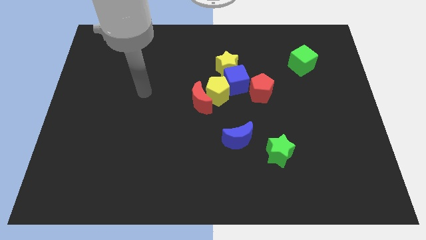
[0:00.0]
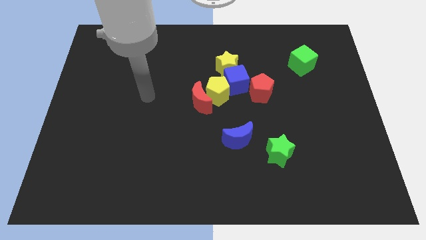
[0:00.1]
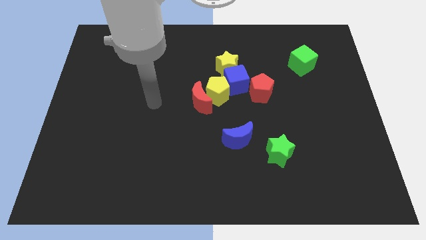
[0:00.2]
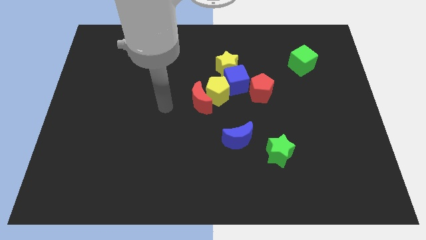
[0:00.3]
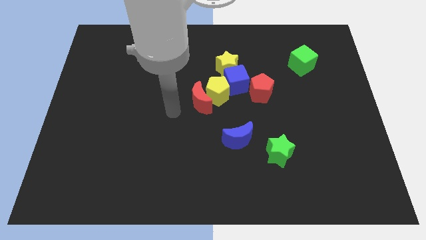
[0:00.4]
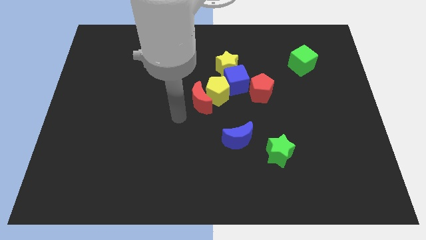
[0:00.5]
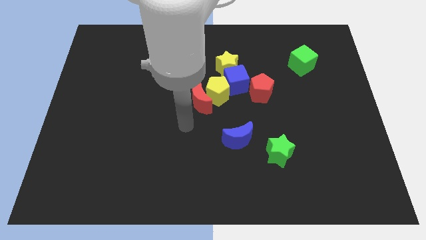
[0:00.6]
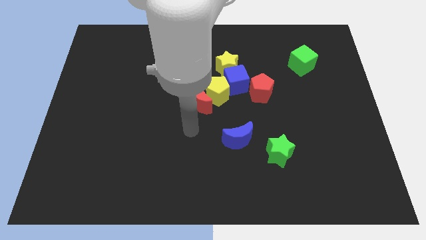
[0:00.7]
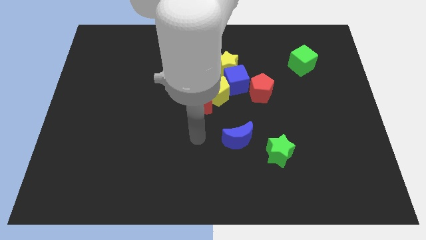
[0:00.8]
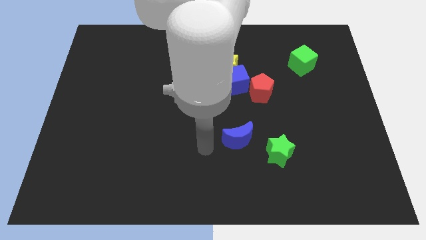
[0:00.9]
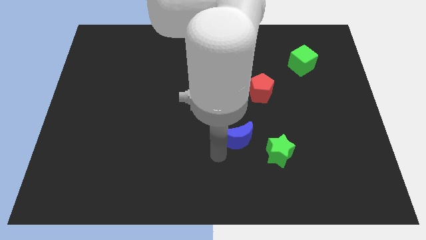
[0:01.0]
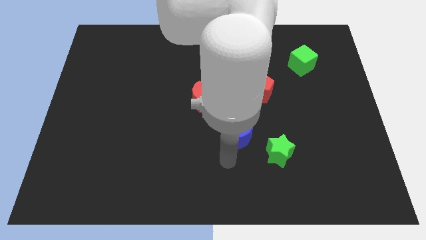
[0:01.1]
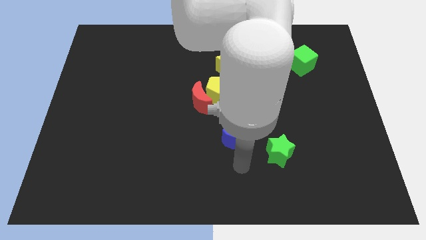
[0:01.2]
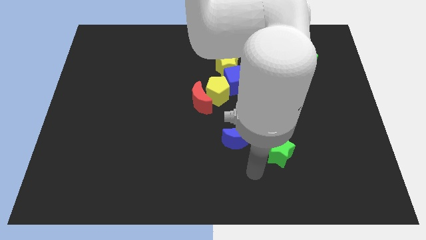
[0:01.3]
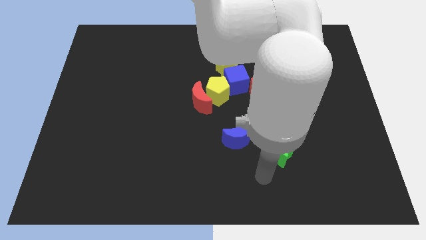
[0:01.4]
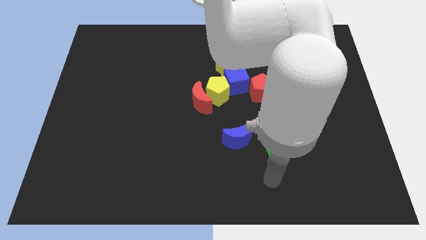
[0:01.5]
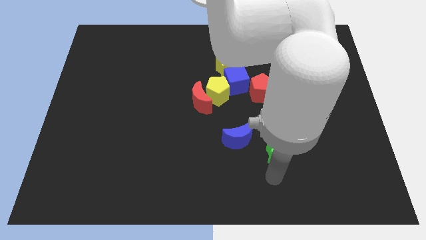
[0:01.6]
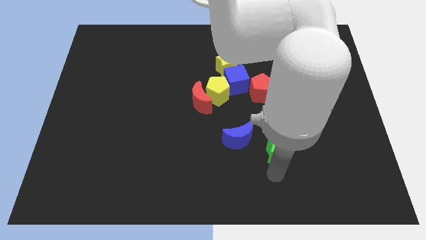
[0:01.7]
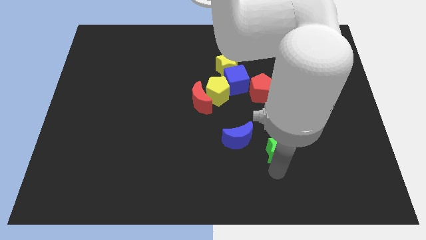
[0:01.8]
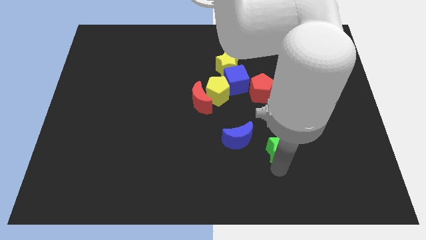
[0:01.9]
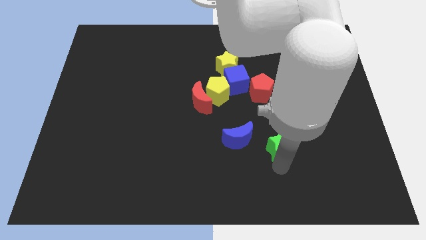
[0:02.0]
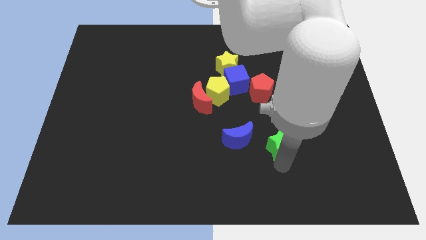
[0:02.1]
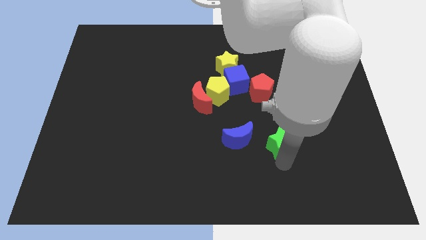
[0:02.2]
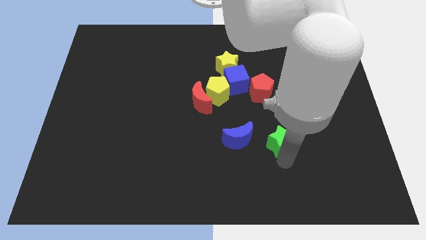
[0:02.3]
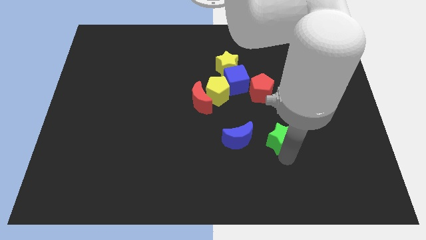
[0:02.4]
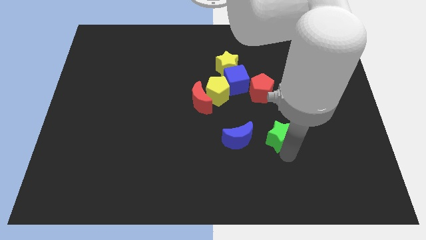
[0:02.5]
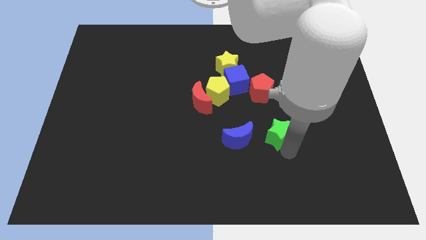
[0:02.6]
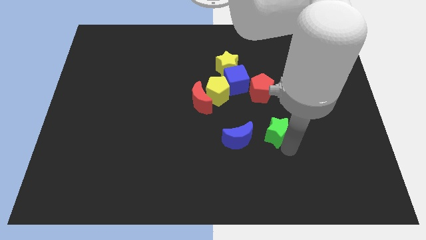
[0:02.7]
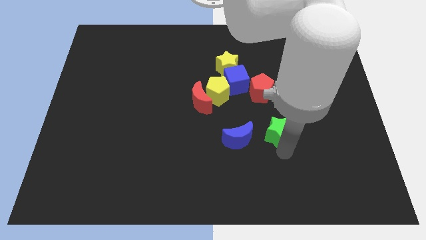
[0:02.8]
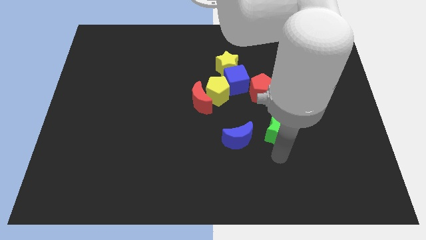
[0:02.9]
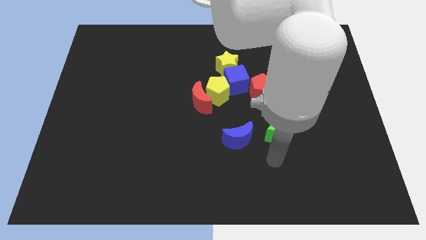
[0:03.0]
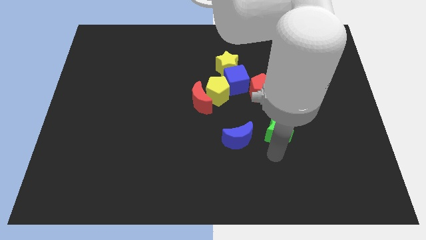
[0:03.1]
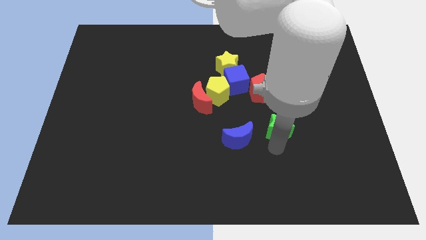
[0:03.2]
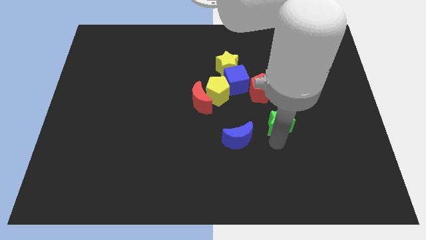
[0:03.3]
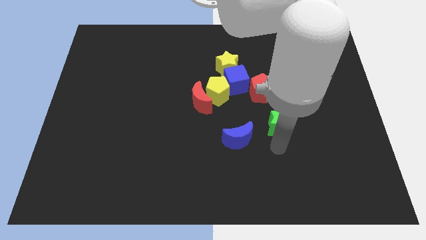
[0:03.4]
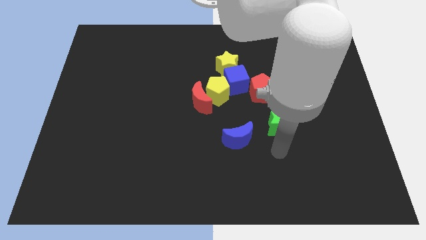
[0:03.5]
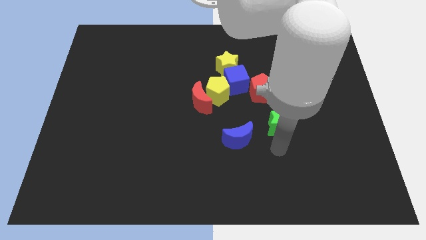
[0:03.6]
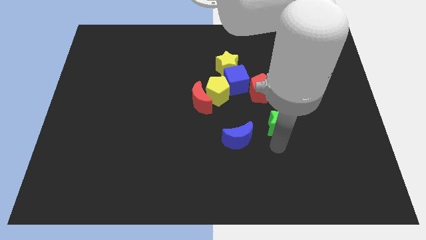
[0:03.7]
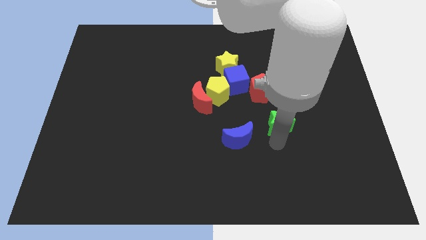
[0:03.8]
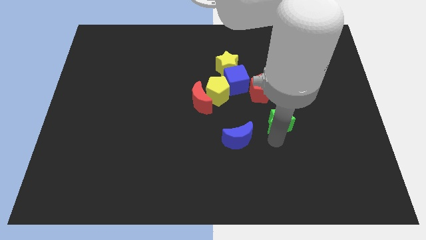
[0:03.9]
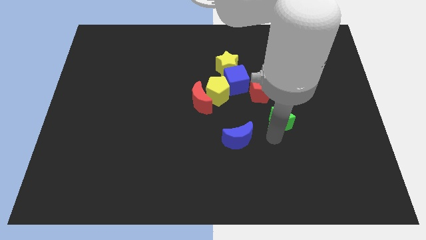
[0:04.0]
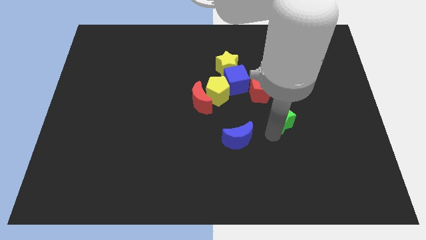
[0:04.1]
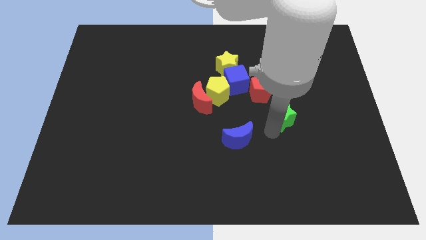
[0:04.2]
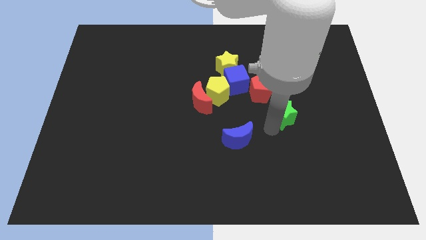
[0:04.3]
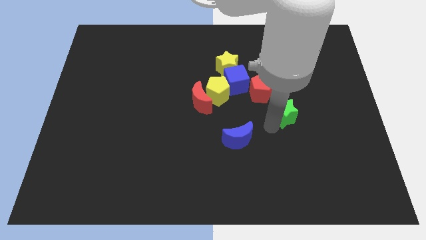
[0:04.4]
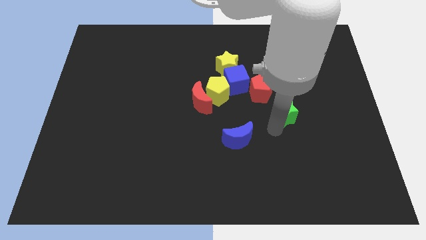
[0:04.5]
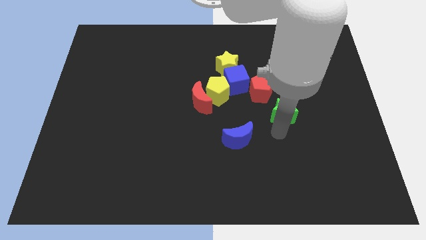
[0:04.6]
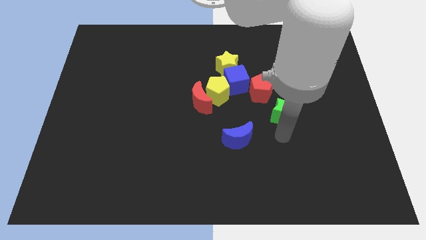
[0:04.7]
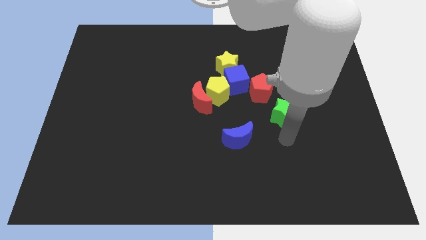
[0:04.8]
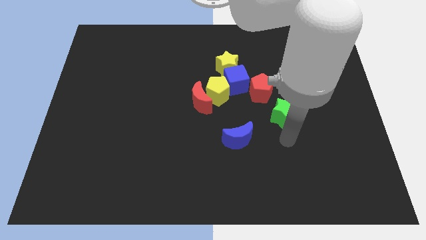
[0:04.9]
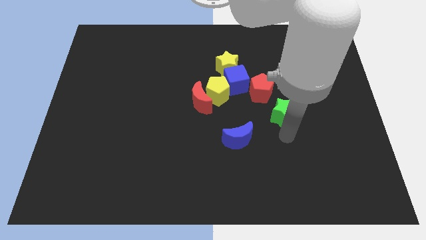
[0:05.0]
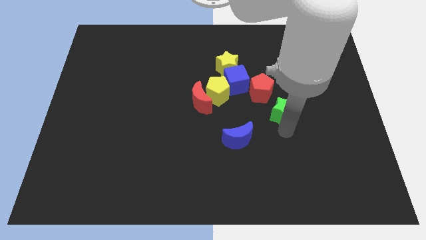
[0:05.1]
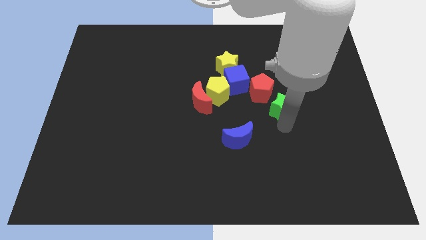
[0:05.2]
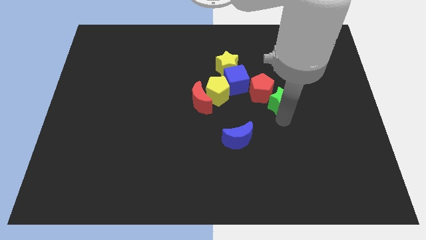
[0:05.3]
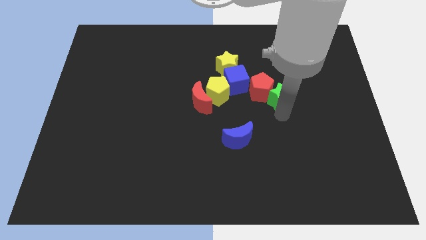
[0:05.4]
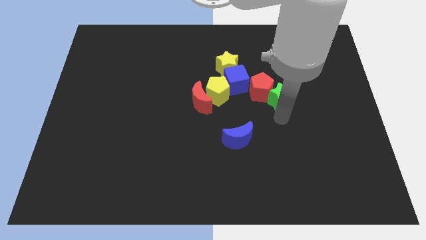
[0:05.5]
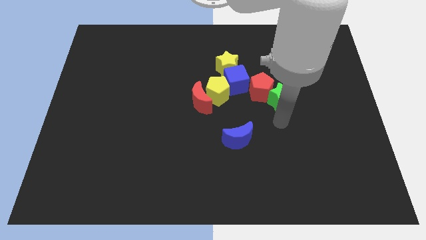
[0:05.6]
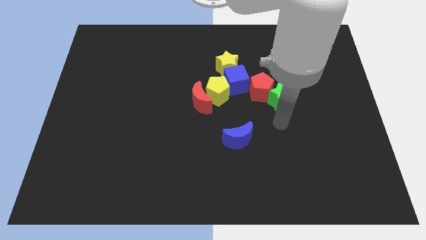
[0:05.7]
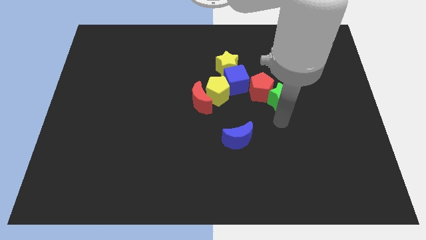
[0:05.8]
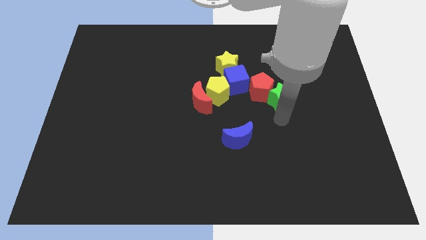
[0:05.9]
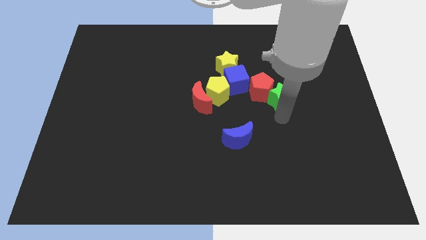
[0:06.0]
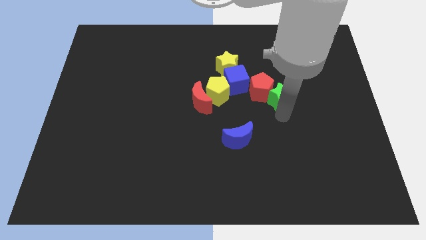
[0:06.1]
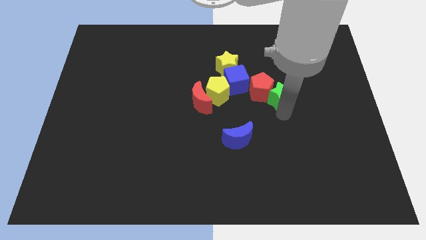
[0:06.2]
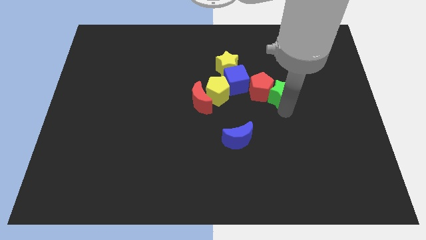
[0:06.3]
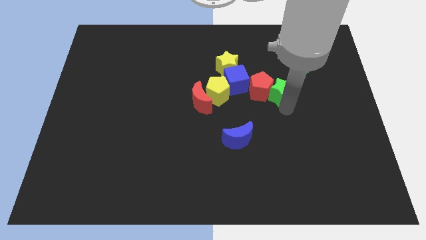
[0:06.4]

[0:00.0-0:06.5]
slide the green star diagonally up and to the right of the red pentagon

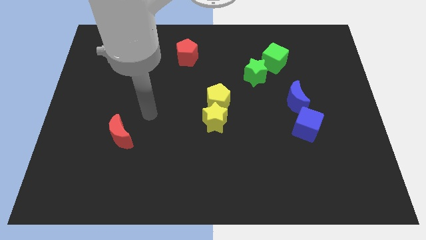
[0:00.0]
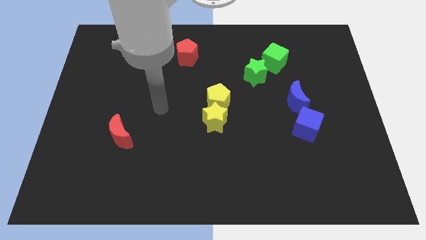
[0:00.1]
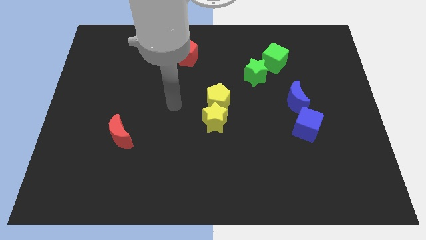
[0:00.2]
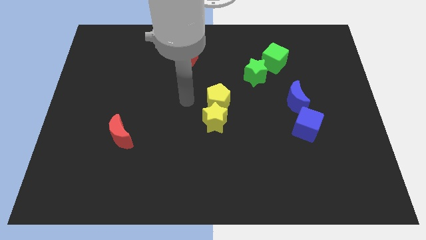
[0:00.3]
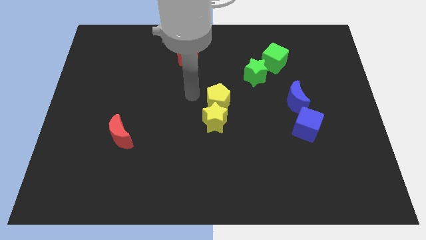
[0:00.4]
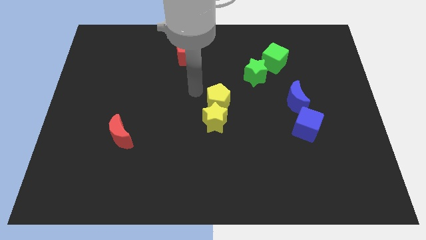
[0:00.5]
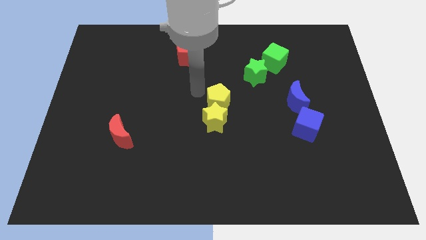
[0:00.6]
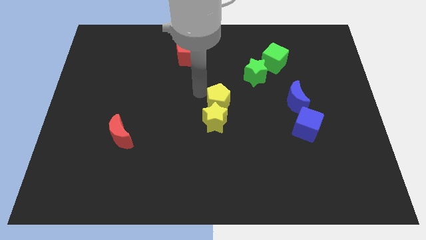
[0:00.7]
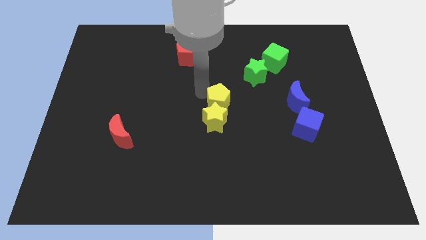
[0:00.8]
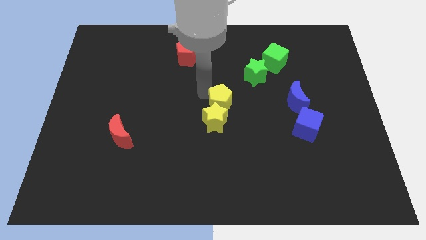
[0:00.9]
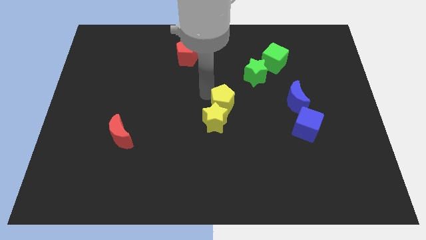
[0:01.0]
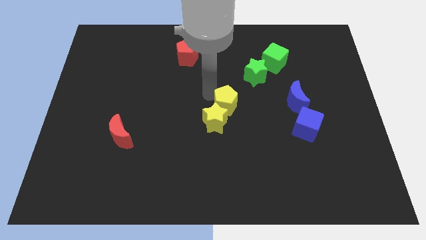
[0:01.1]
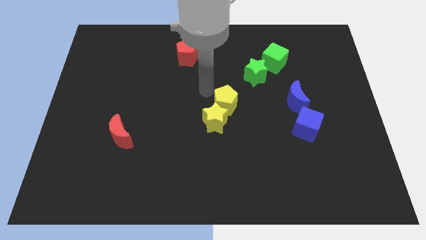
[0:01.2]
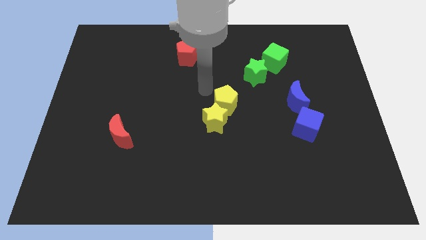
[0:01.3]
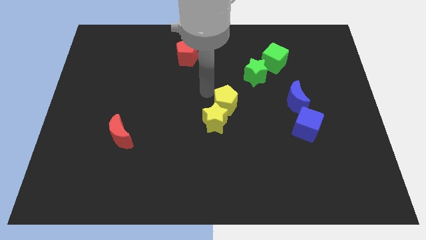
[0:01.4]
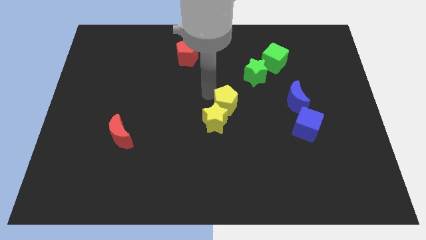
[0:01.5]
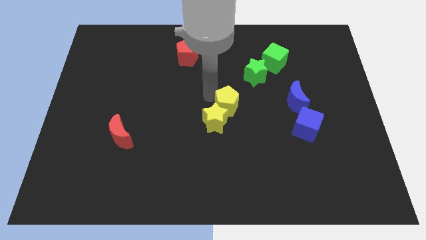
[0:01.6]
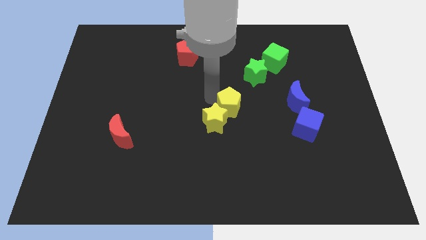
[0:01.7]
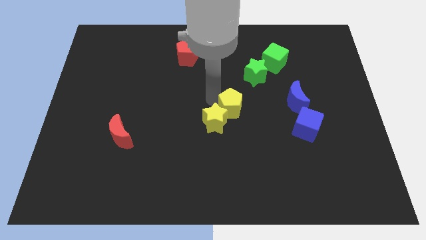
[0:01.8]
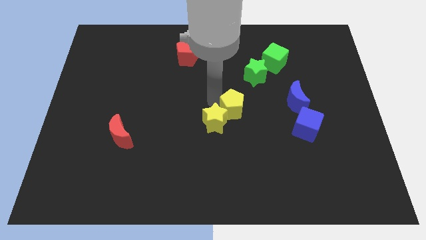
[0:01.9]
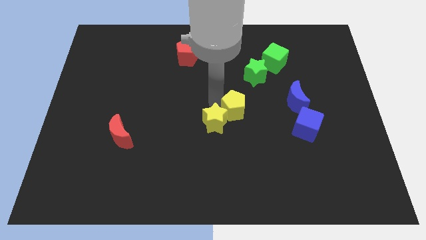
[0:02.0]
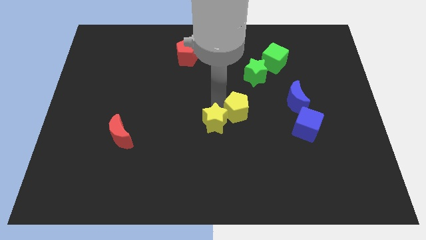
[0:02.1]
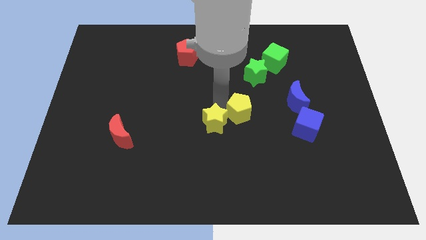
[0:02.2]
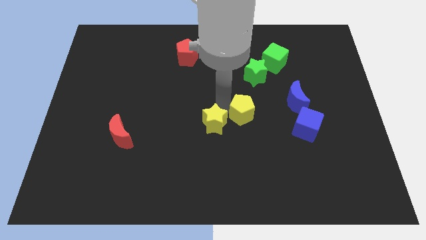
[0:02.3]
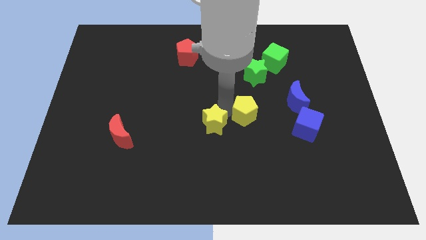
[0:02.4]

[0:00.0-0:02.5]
push the yellow pentagon to the left side of the blue cube
